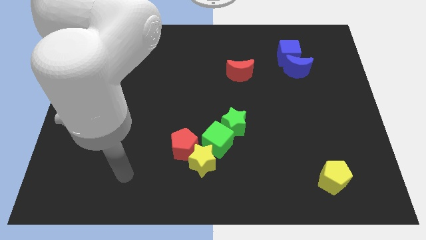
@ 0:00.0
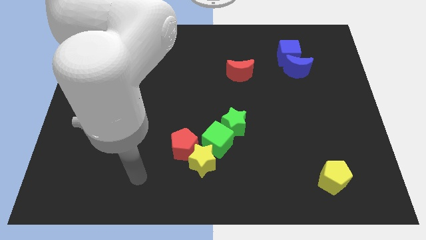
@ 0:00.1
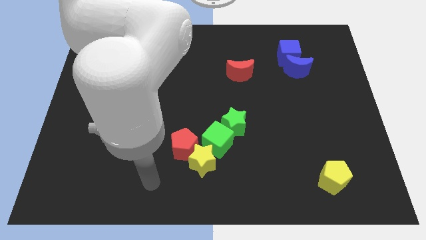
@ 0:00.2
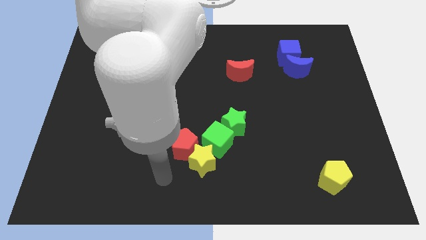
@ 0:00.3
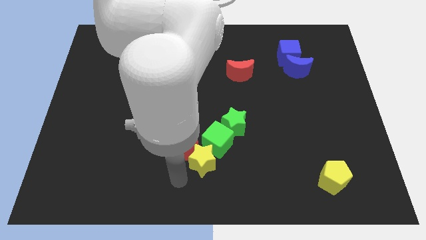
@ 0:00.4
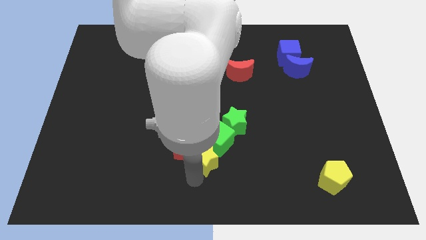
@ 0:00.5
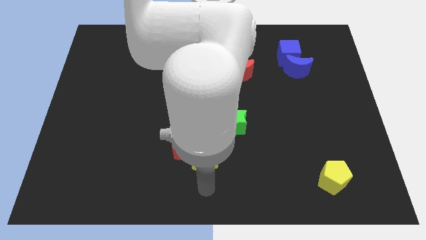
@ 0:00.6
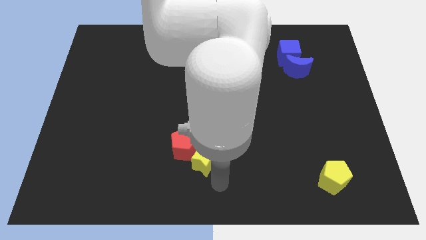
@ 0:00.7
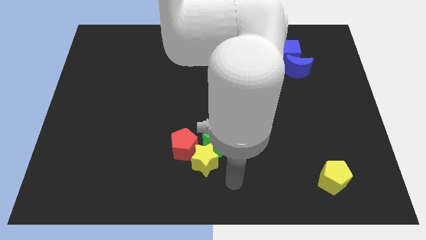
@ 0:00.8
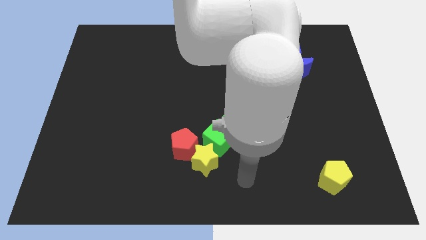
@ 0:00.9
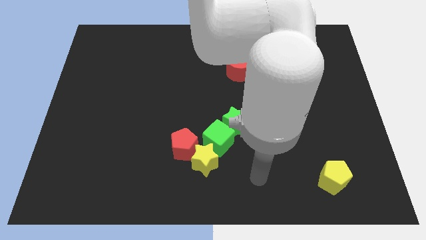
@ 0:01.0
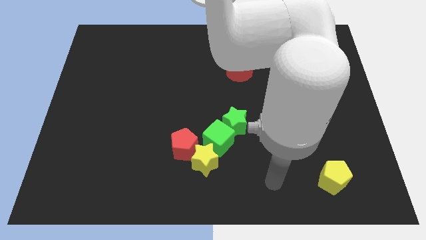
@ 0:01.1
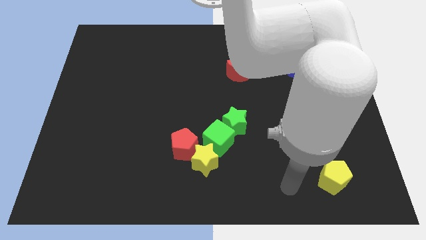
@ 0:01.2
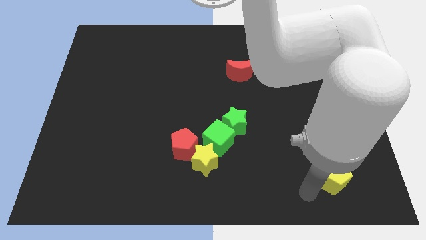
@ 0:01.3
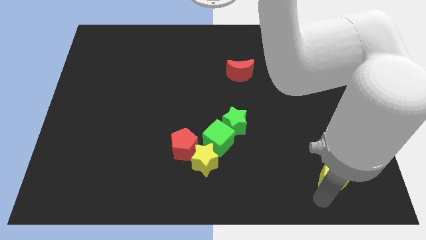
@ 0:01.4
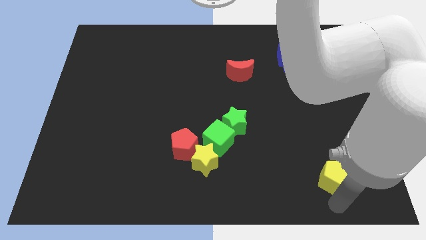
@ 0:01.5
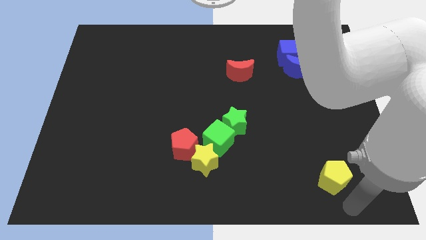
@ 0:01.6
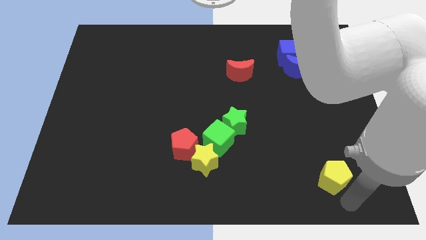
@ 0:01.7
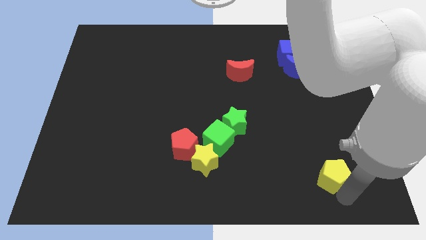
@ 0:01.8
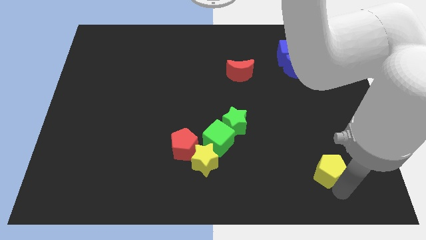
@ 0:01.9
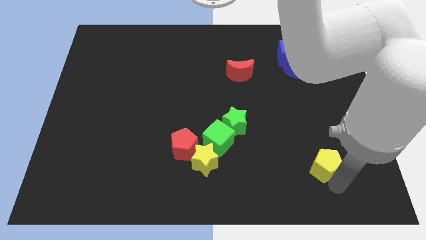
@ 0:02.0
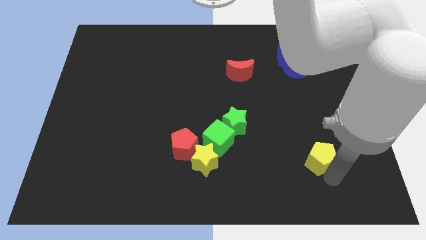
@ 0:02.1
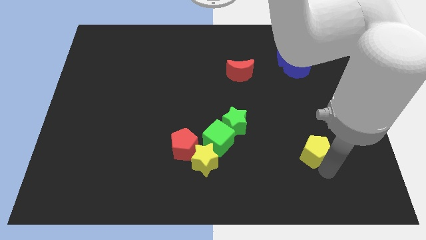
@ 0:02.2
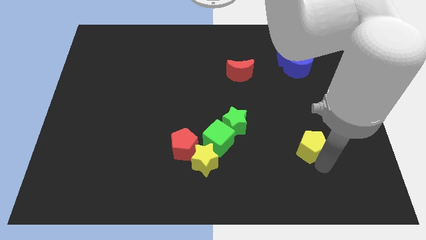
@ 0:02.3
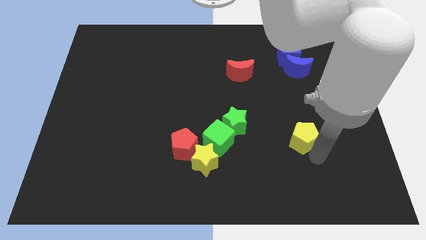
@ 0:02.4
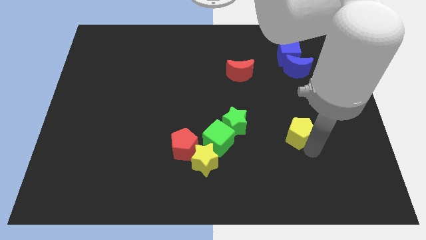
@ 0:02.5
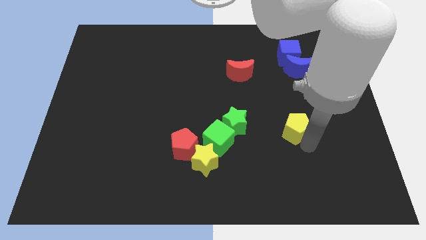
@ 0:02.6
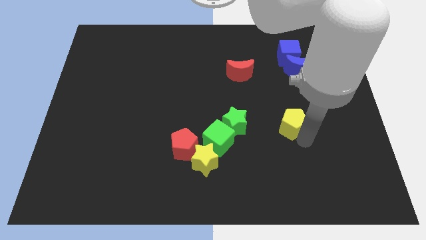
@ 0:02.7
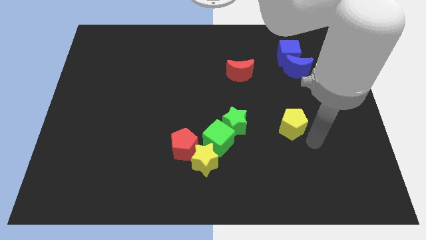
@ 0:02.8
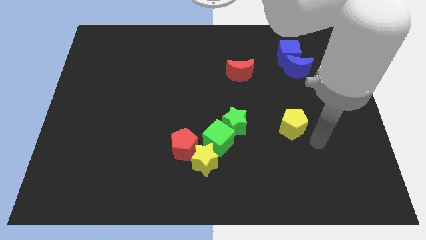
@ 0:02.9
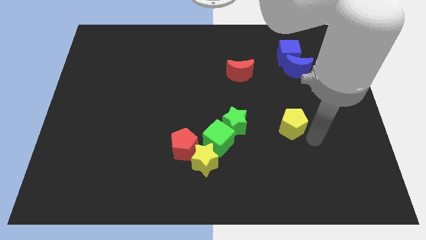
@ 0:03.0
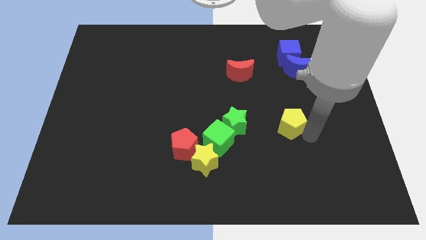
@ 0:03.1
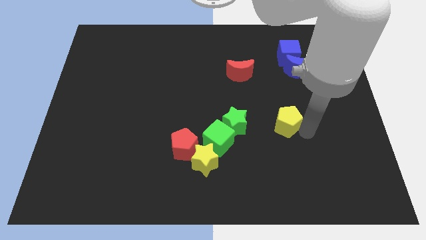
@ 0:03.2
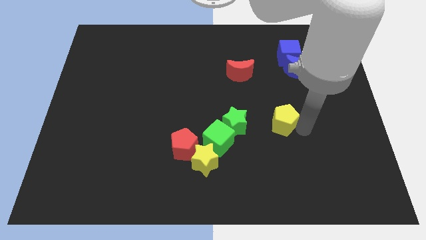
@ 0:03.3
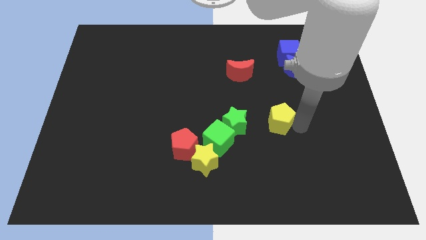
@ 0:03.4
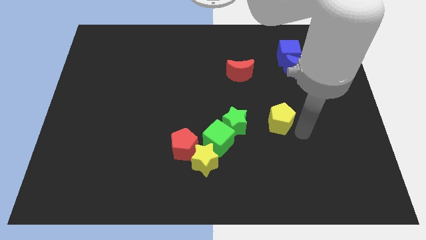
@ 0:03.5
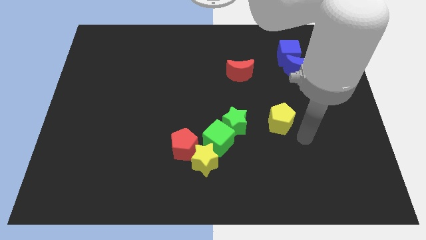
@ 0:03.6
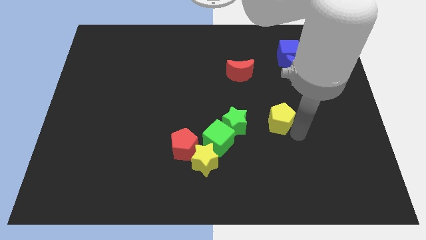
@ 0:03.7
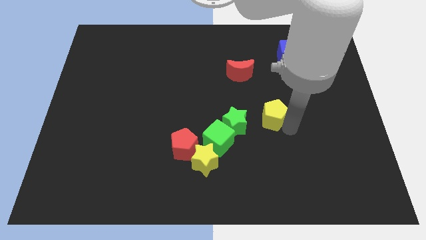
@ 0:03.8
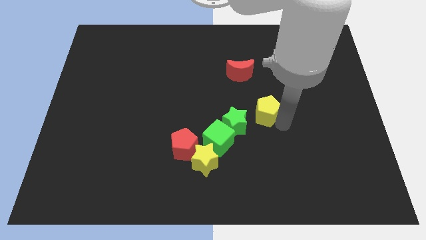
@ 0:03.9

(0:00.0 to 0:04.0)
move the yellow pentagon up and left diagonally

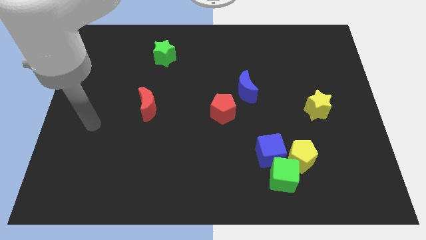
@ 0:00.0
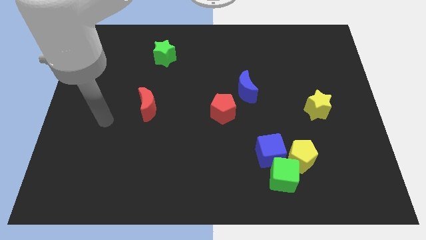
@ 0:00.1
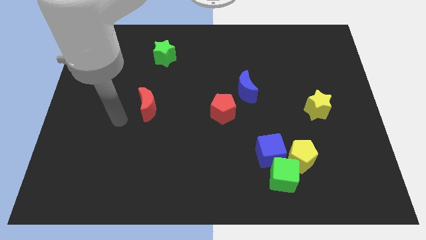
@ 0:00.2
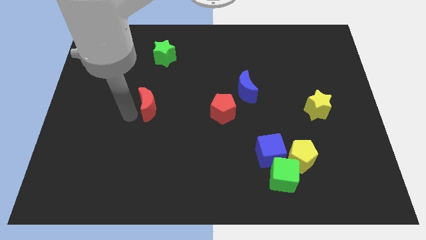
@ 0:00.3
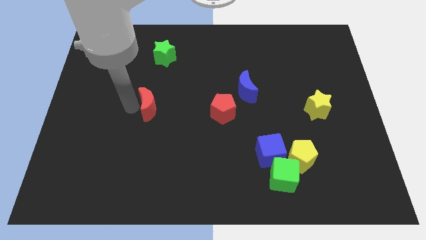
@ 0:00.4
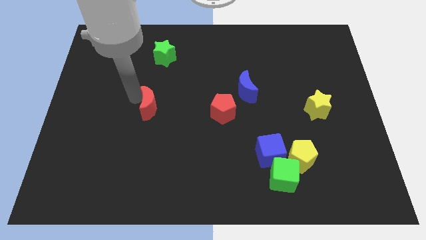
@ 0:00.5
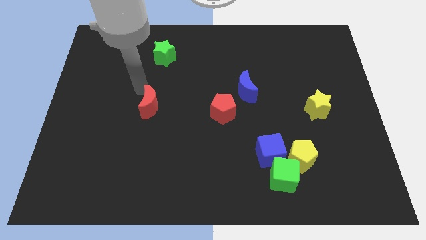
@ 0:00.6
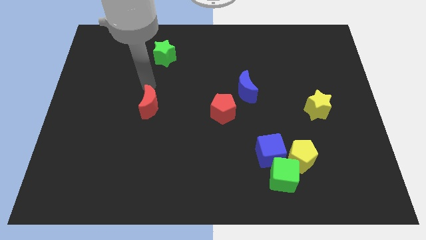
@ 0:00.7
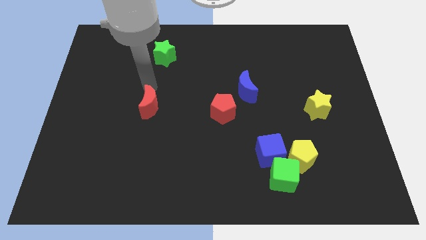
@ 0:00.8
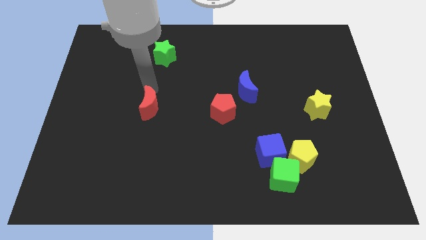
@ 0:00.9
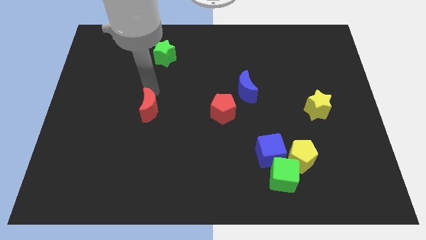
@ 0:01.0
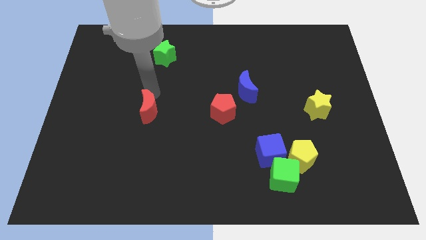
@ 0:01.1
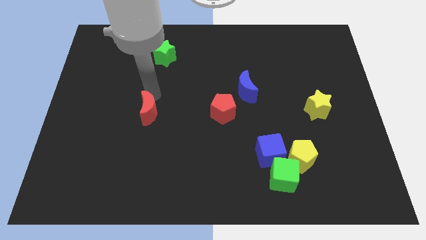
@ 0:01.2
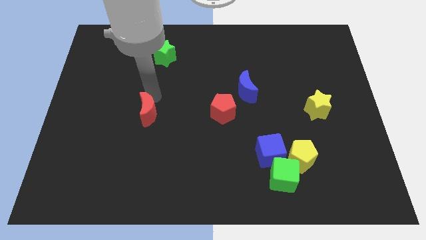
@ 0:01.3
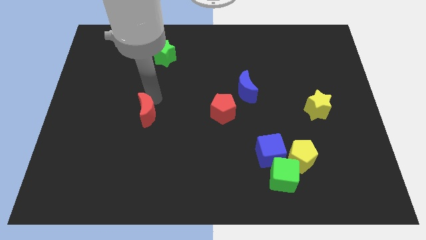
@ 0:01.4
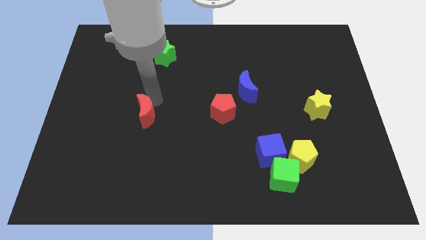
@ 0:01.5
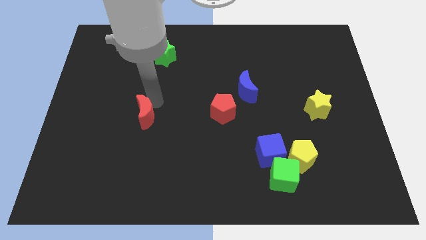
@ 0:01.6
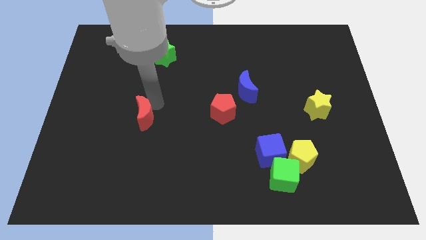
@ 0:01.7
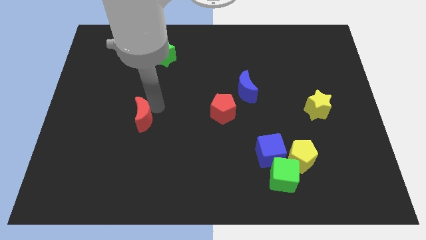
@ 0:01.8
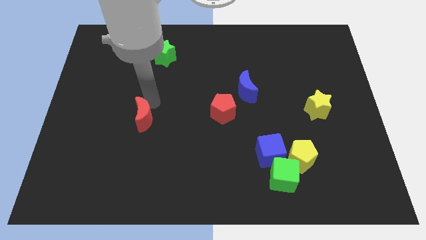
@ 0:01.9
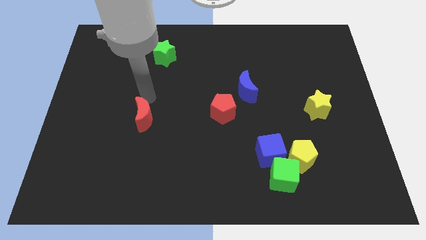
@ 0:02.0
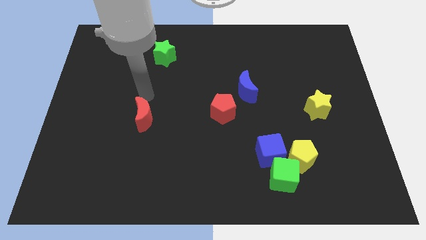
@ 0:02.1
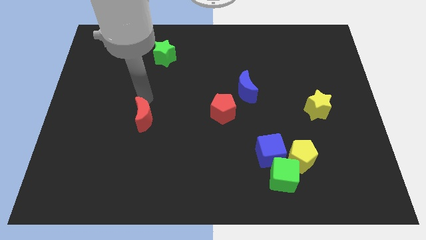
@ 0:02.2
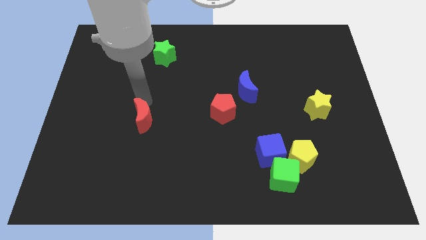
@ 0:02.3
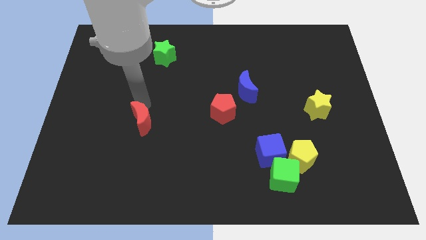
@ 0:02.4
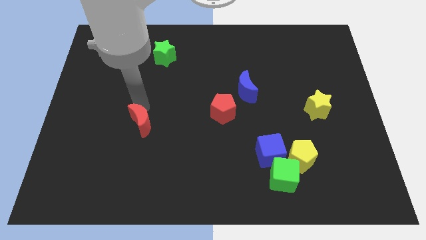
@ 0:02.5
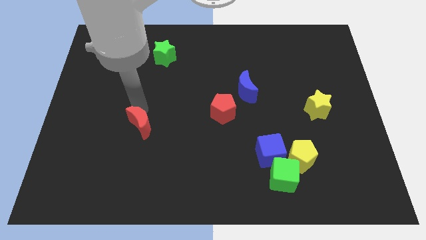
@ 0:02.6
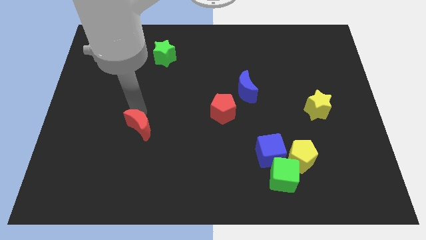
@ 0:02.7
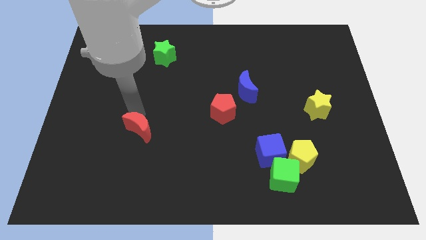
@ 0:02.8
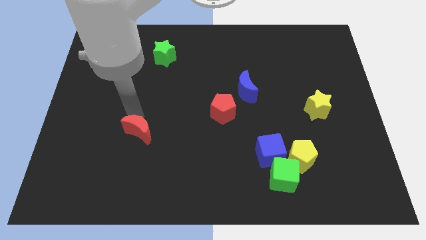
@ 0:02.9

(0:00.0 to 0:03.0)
move the red moon a little bit downwards

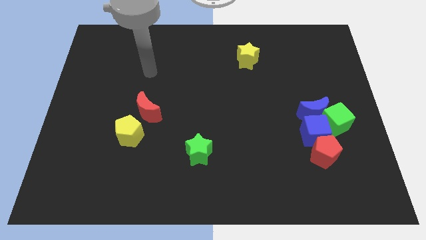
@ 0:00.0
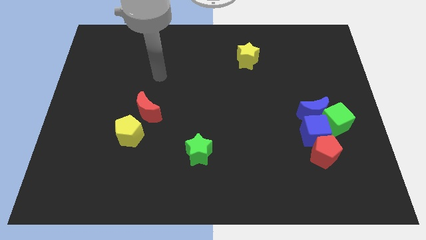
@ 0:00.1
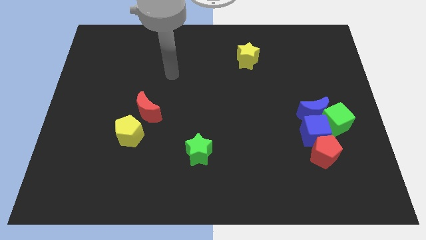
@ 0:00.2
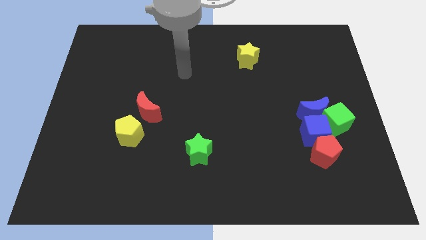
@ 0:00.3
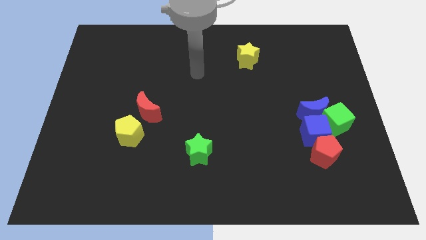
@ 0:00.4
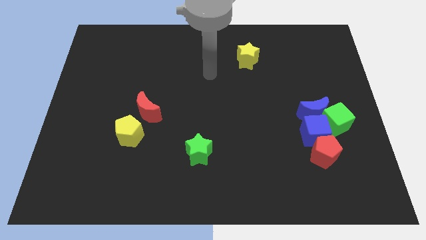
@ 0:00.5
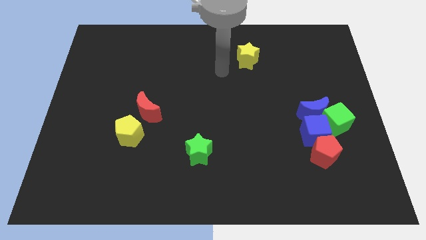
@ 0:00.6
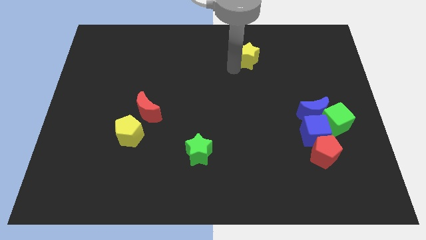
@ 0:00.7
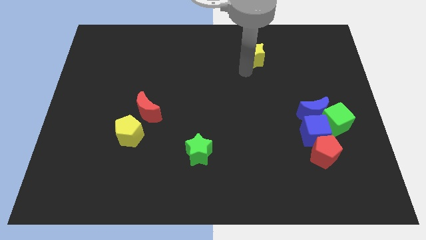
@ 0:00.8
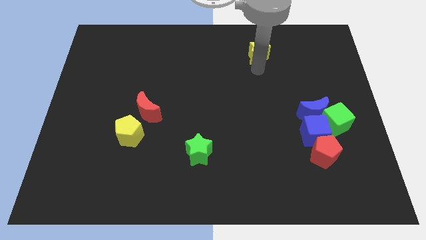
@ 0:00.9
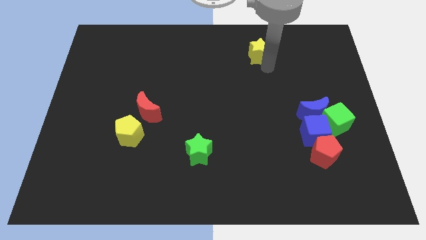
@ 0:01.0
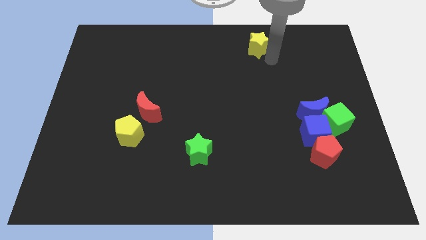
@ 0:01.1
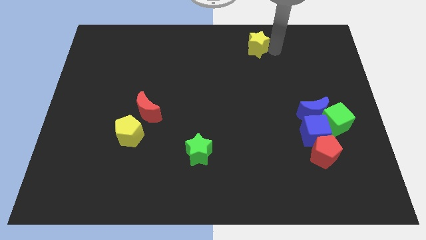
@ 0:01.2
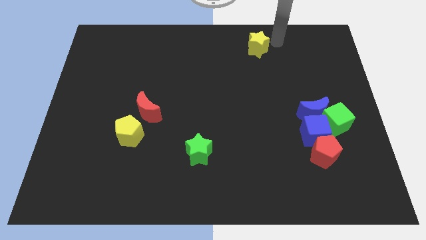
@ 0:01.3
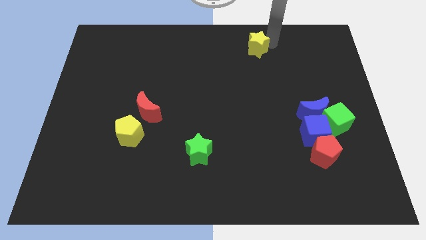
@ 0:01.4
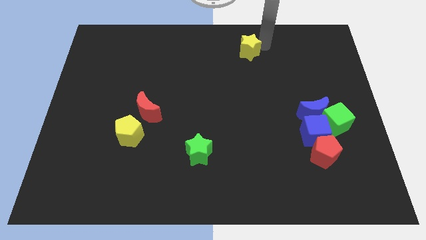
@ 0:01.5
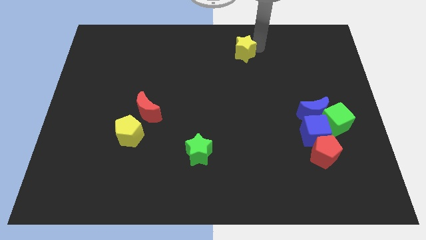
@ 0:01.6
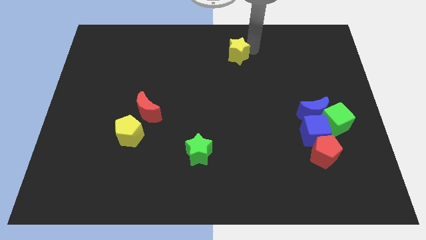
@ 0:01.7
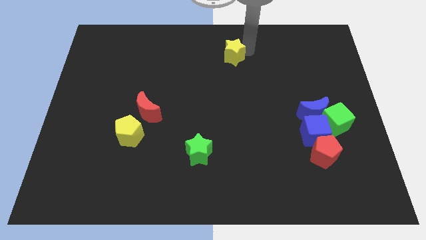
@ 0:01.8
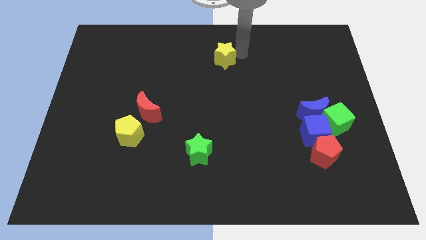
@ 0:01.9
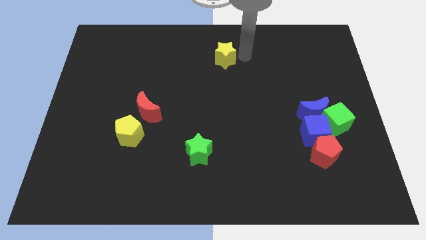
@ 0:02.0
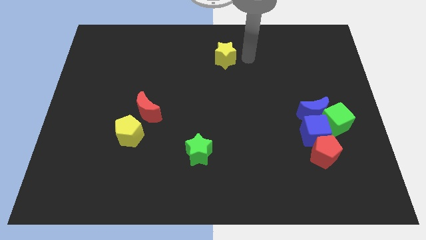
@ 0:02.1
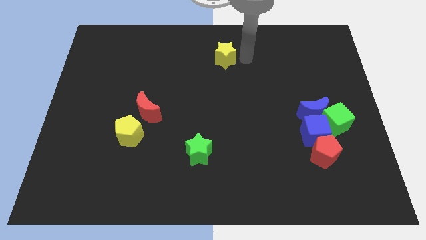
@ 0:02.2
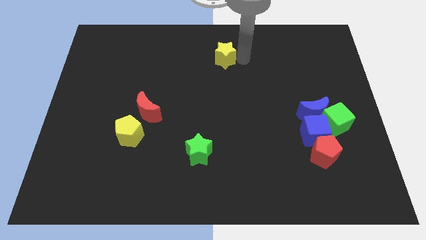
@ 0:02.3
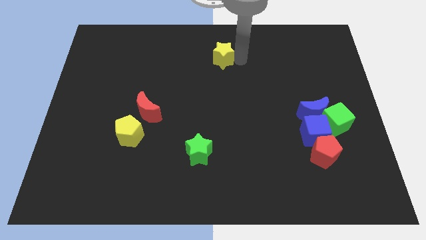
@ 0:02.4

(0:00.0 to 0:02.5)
move the yellow star a bit to the left
